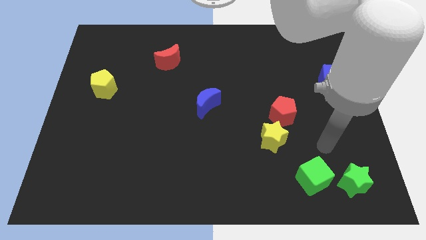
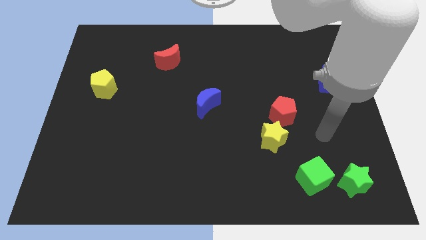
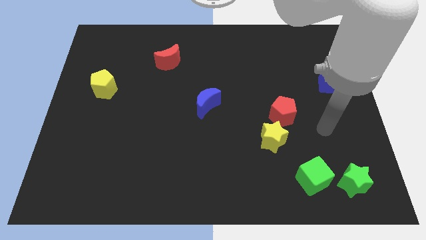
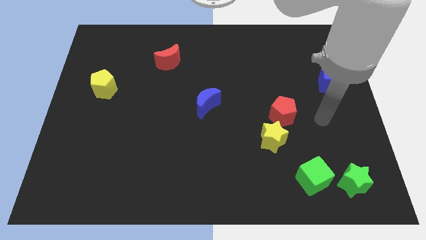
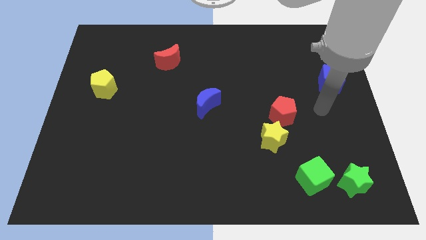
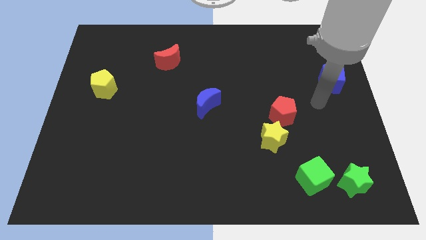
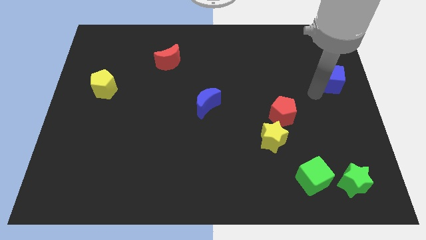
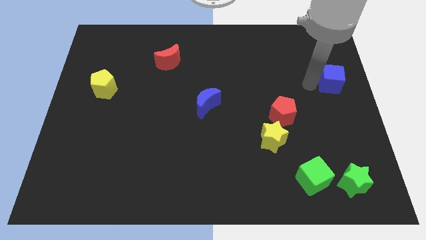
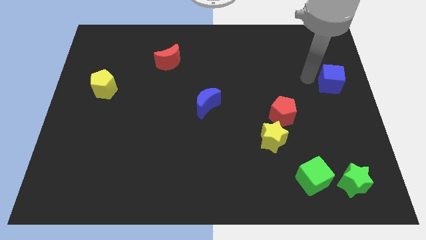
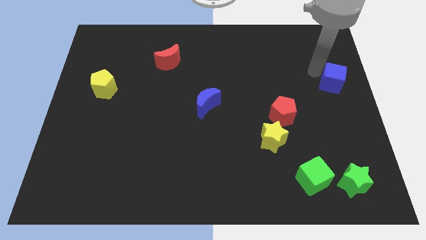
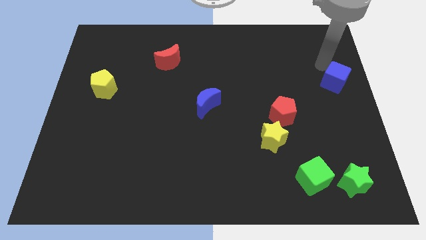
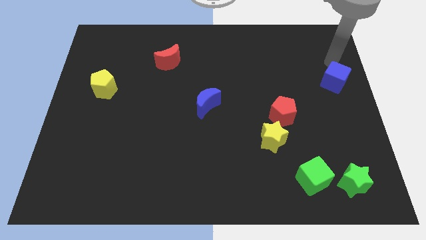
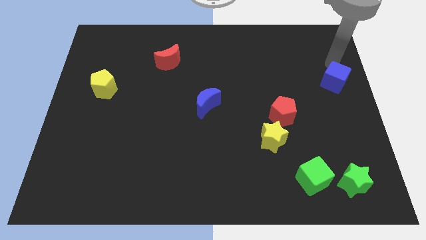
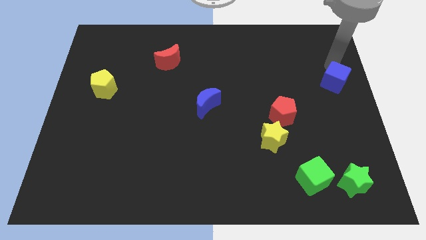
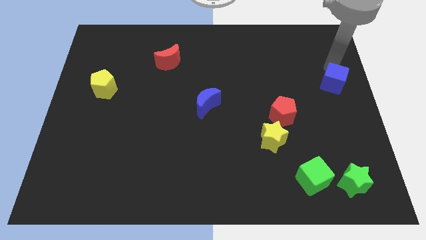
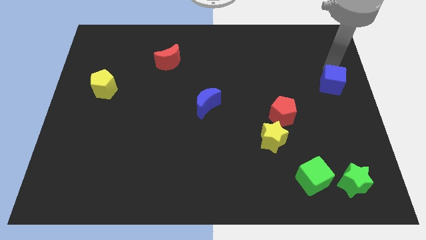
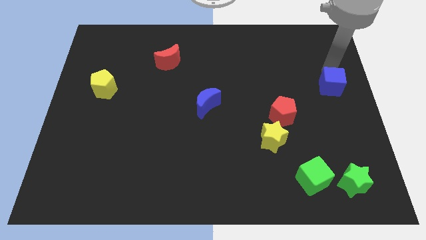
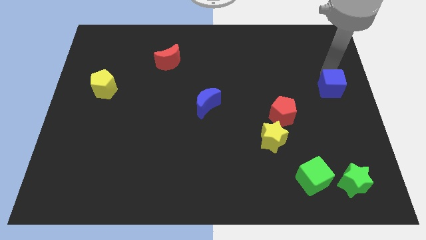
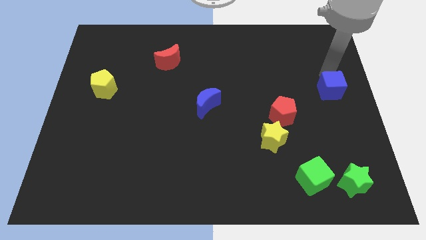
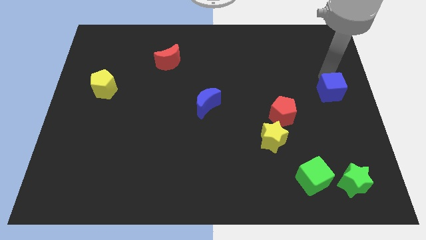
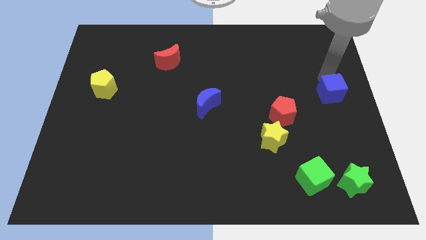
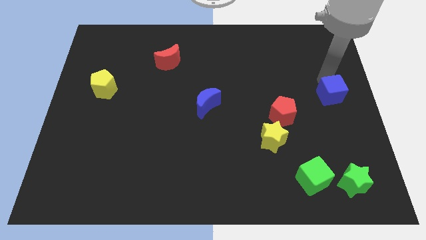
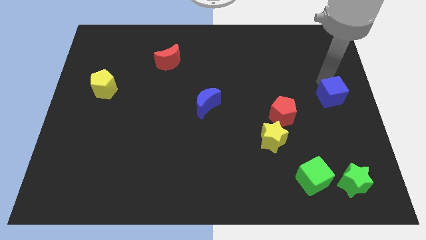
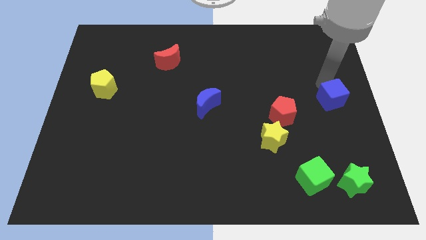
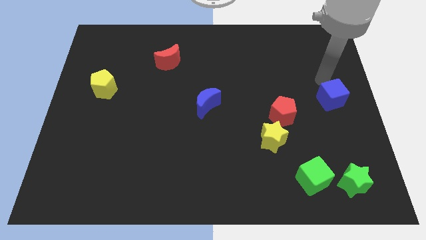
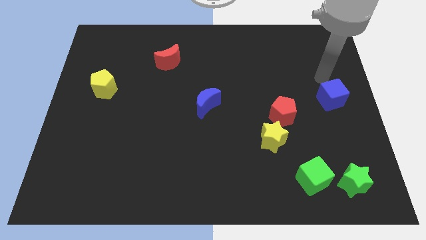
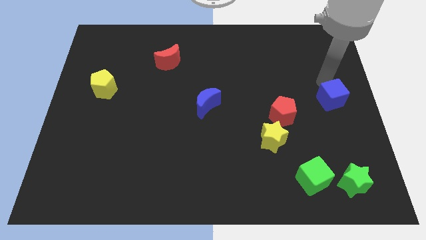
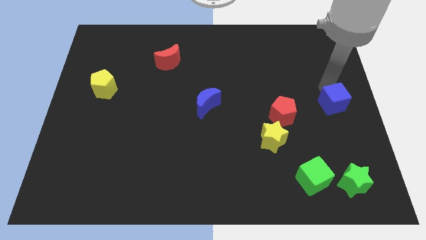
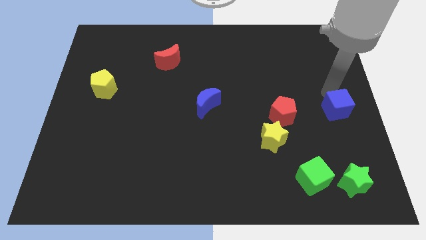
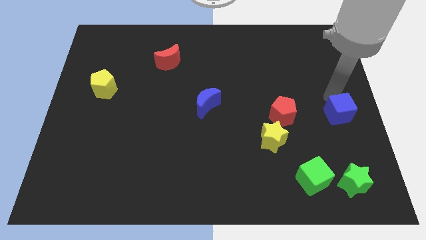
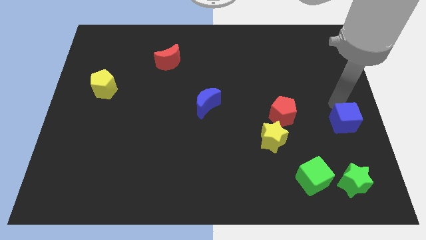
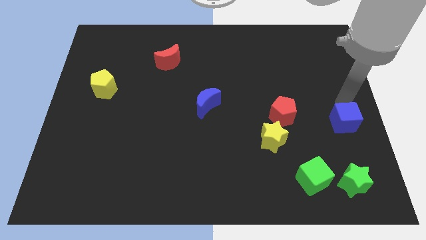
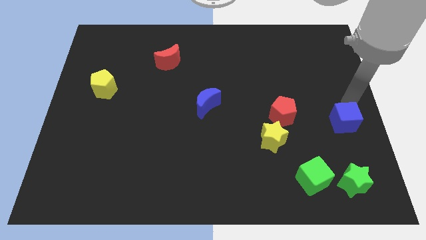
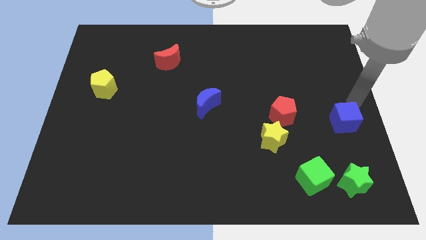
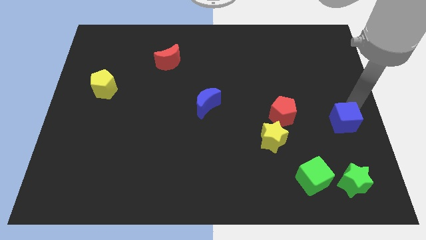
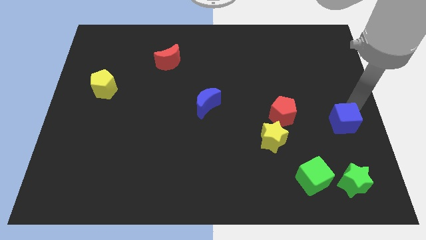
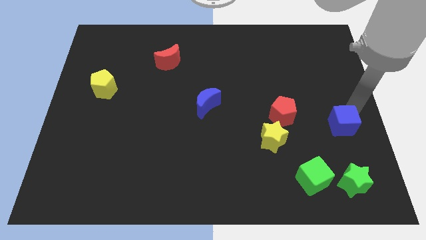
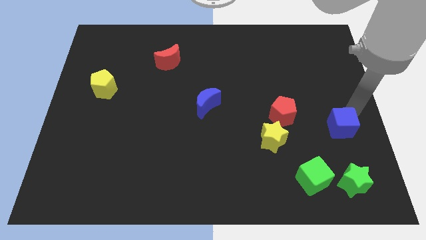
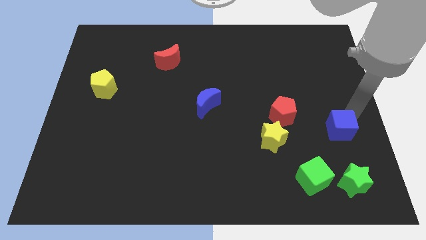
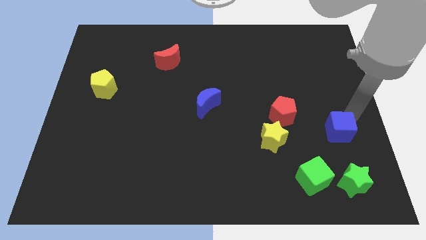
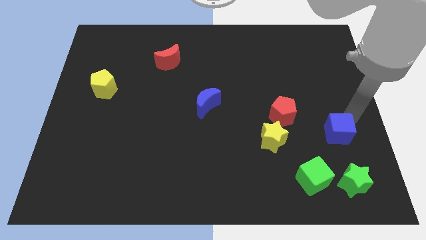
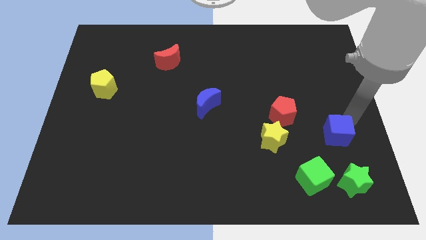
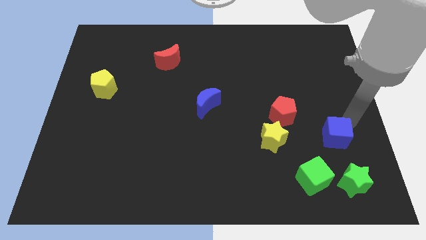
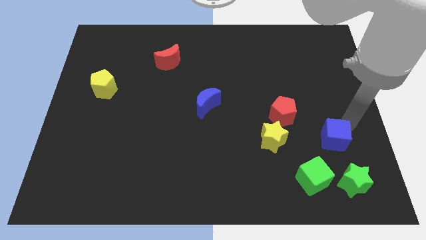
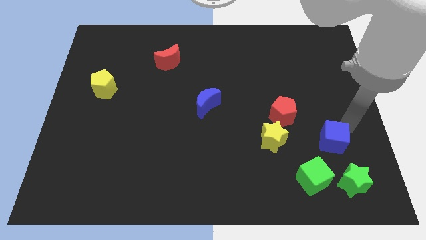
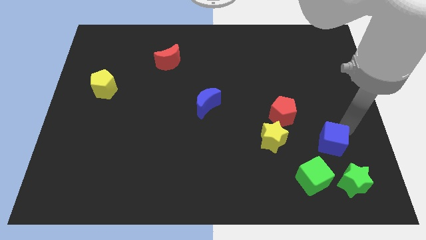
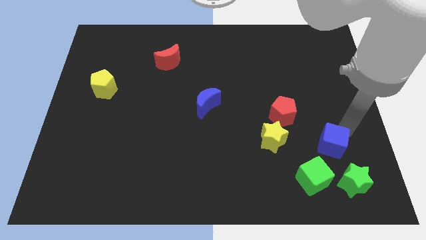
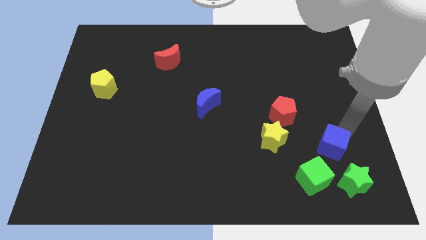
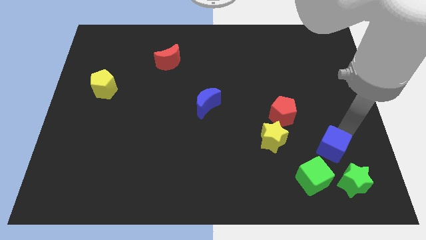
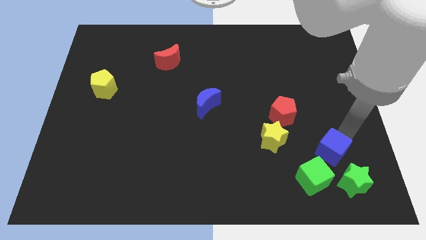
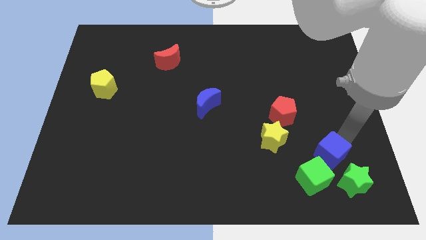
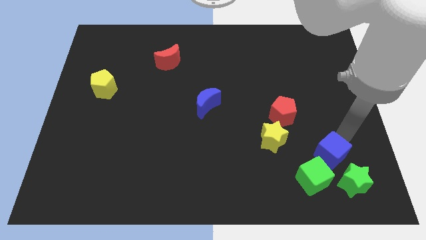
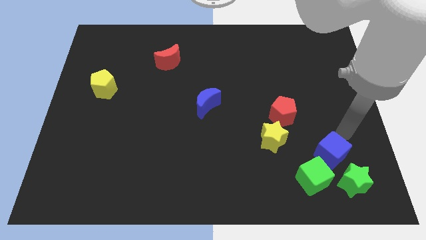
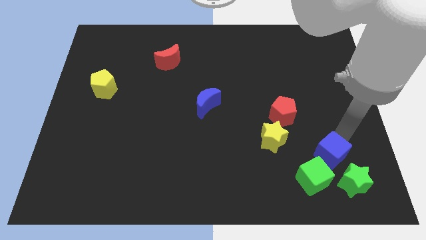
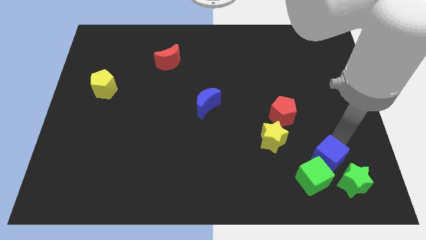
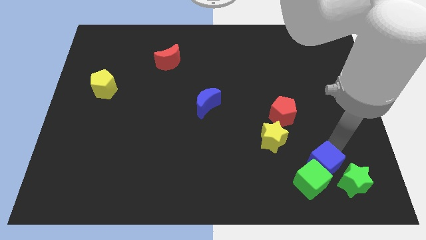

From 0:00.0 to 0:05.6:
move the blue cube to the green cube

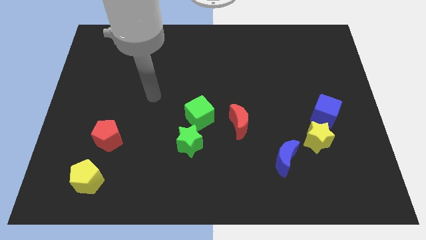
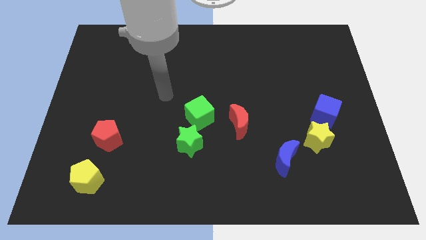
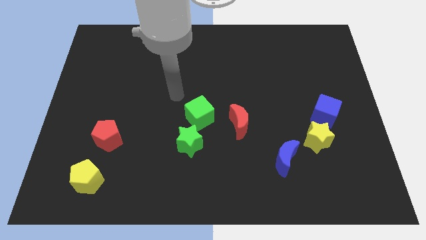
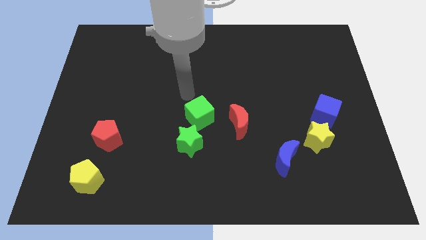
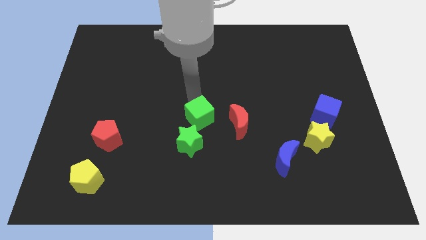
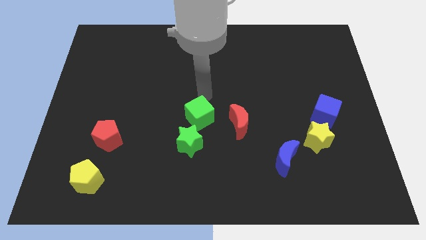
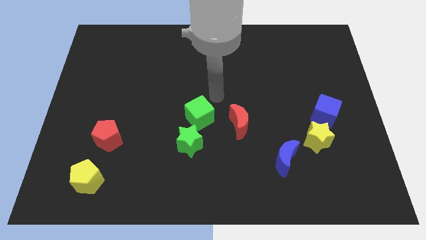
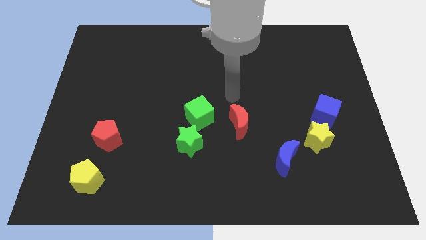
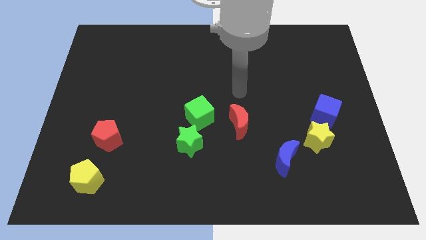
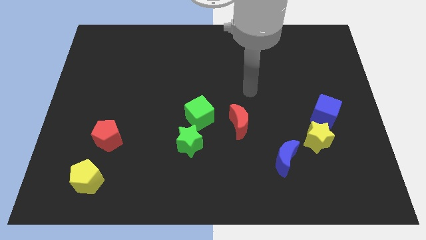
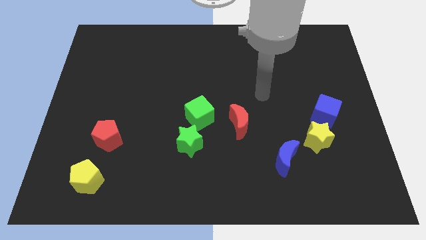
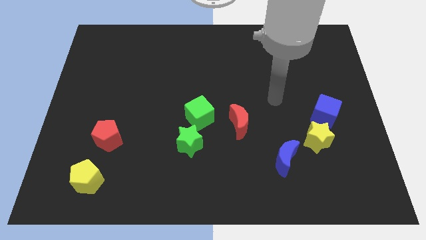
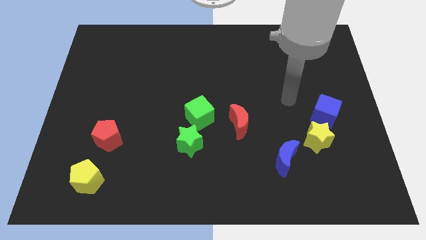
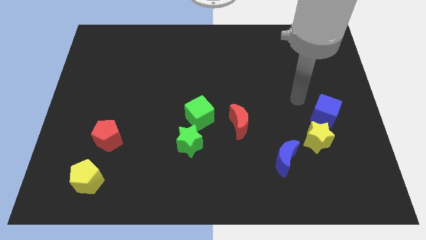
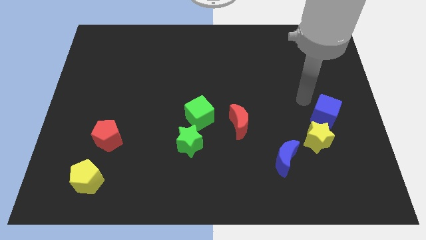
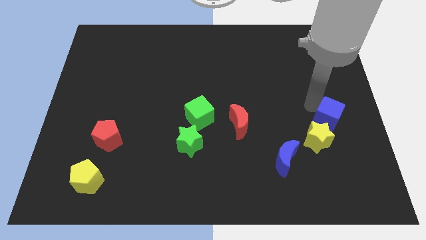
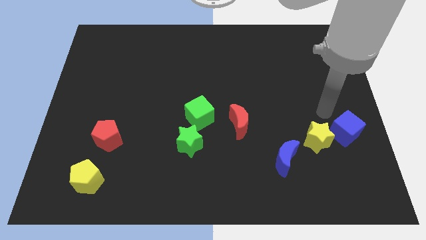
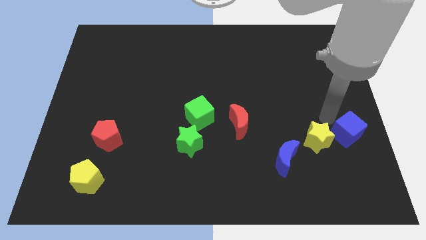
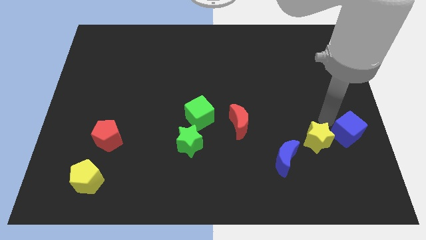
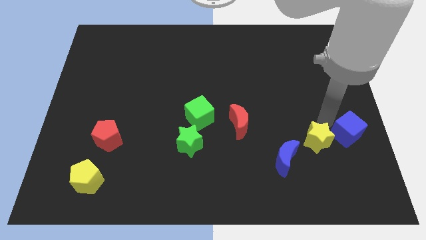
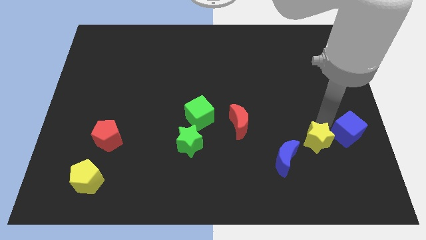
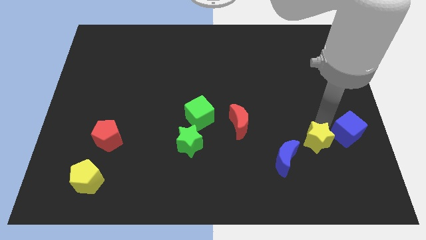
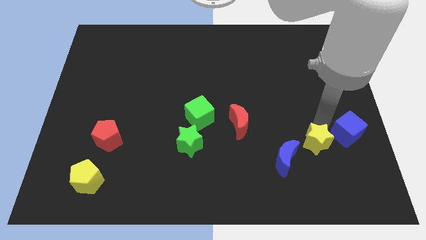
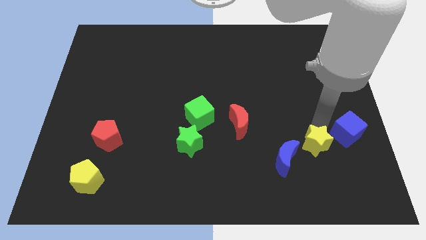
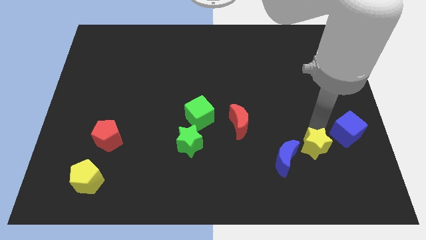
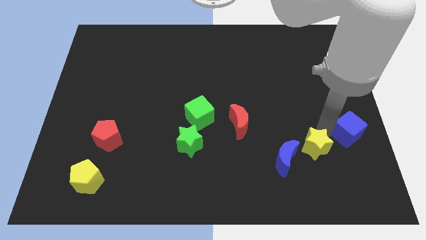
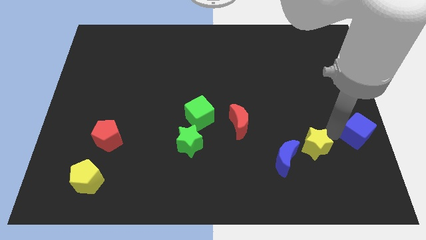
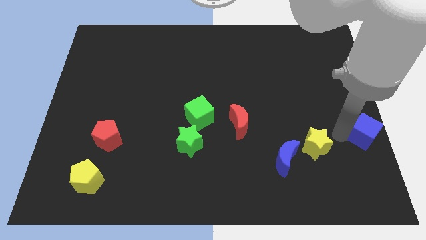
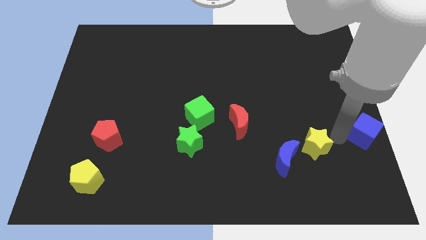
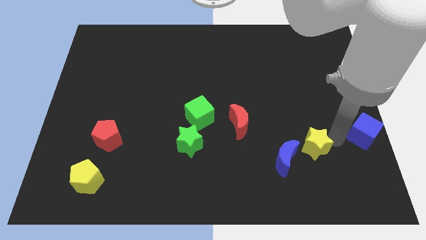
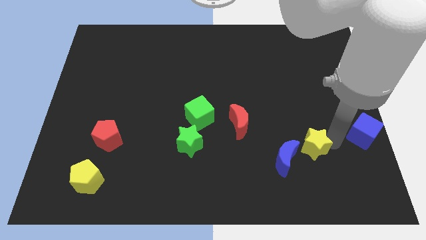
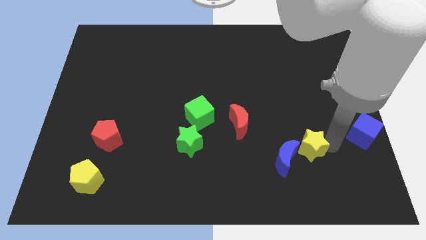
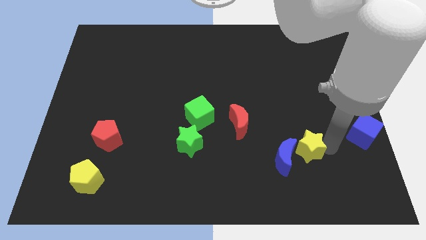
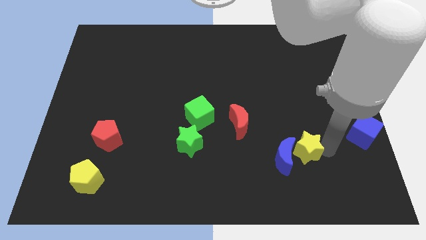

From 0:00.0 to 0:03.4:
slide the yellow star close to the blue moon
